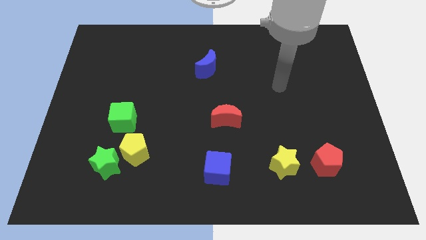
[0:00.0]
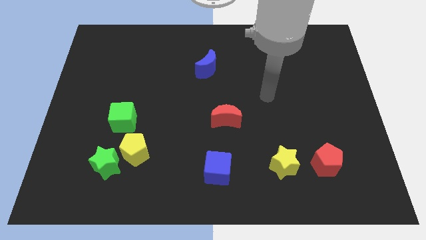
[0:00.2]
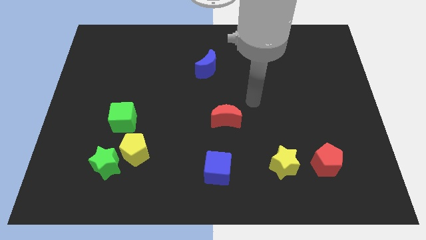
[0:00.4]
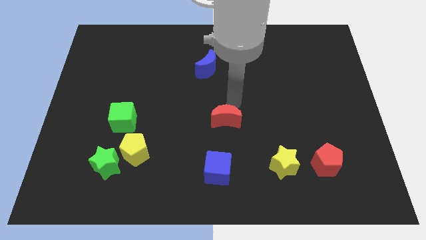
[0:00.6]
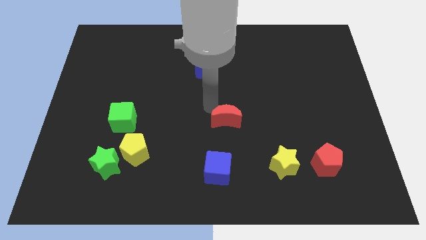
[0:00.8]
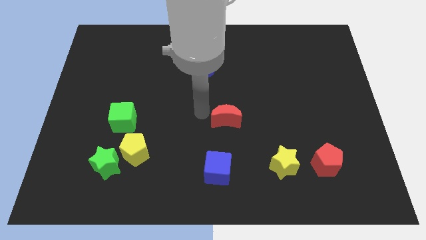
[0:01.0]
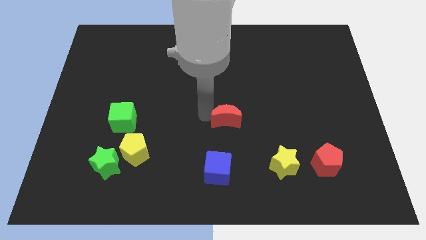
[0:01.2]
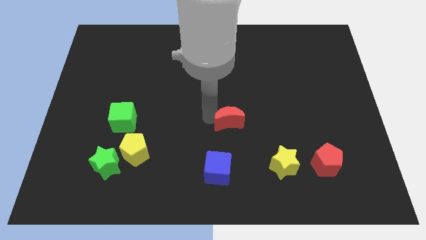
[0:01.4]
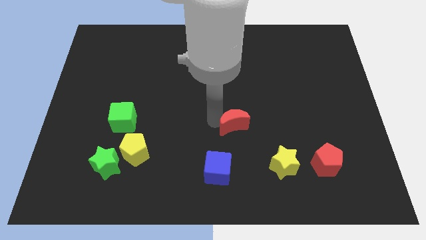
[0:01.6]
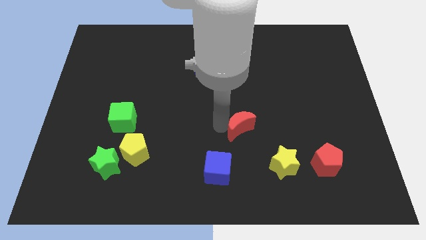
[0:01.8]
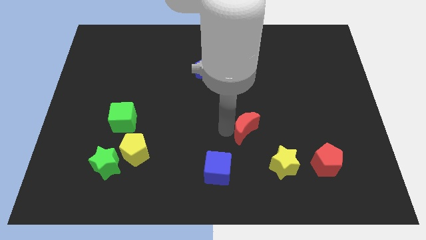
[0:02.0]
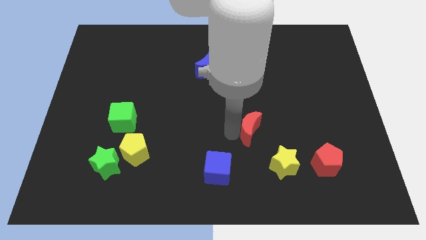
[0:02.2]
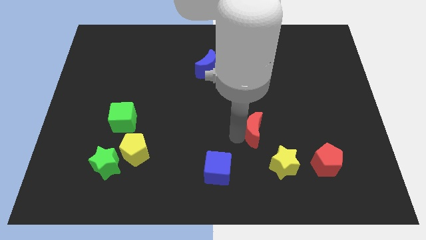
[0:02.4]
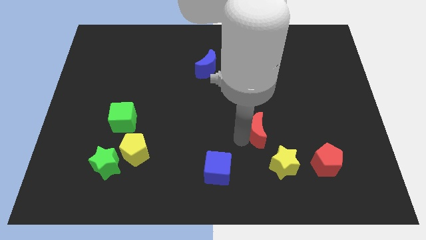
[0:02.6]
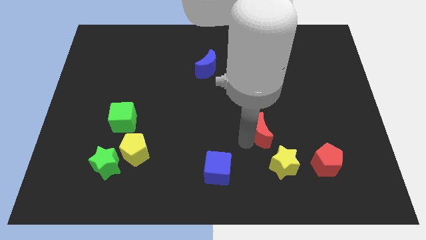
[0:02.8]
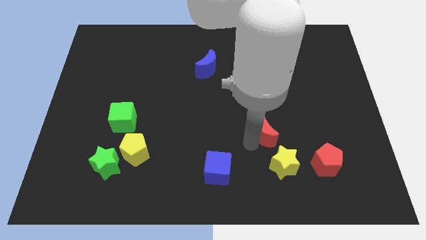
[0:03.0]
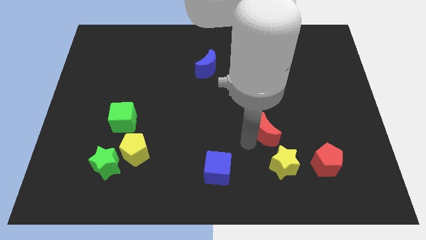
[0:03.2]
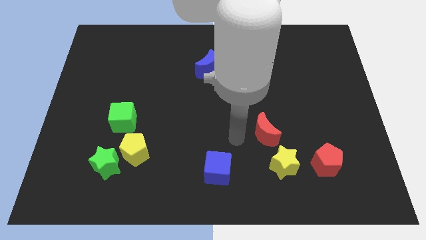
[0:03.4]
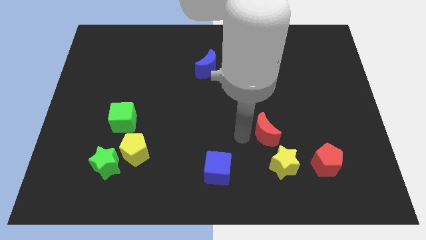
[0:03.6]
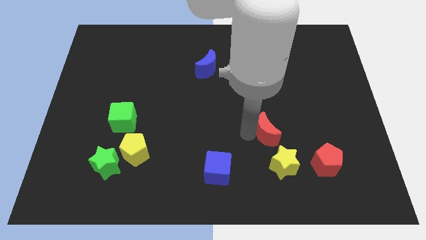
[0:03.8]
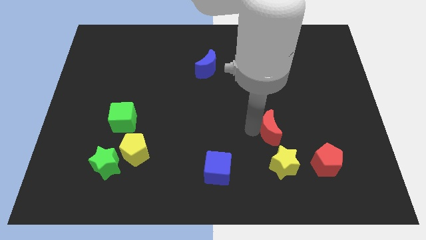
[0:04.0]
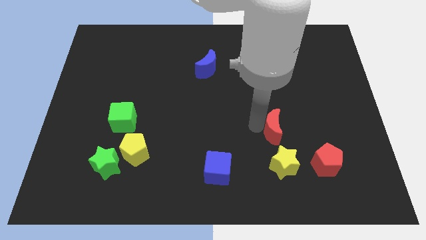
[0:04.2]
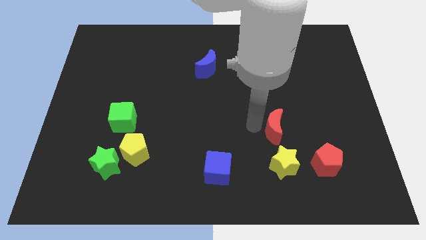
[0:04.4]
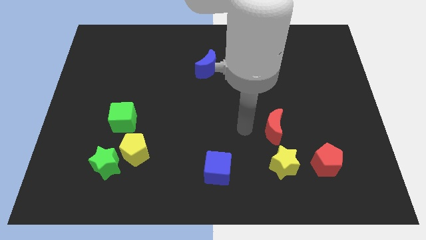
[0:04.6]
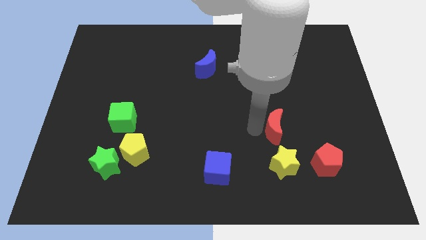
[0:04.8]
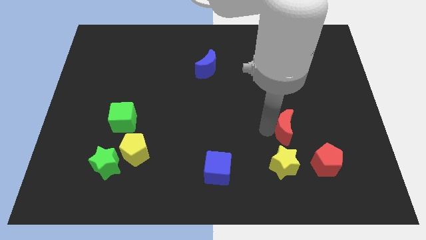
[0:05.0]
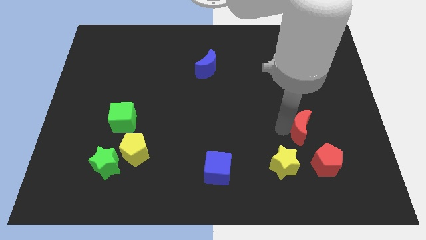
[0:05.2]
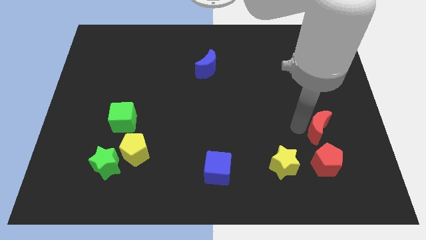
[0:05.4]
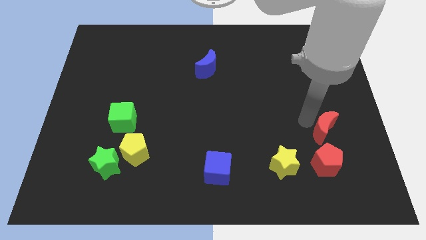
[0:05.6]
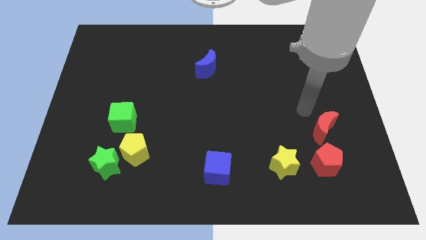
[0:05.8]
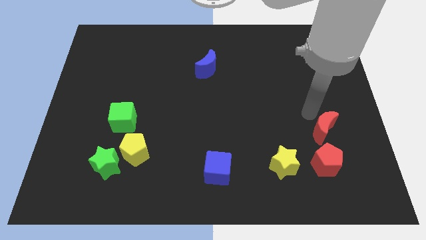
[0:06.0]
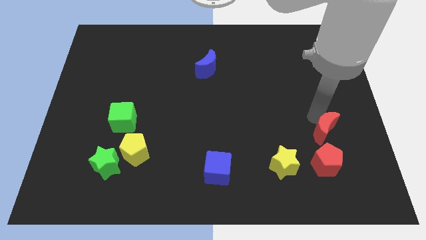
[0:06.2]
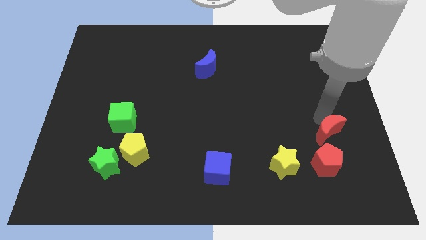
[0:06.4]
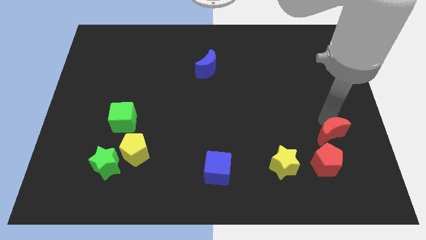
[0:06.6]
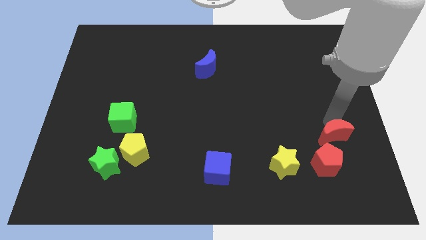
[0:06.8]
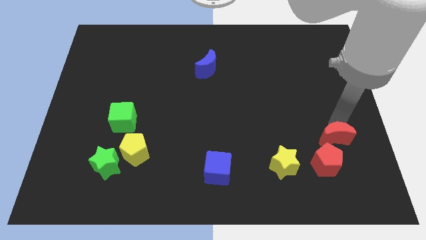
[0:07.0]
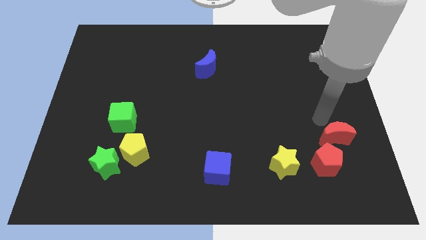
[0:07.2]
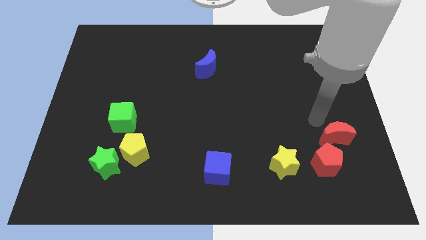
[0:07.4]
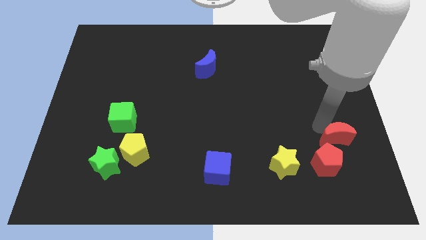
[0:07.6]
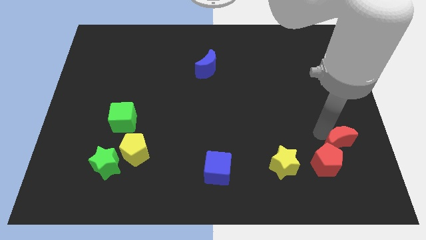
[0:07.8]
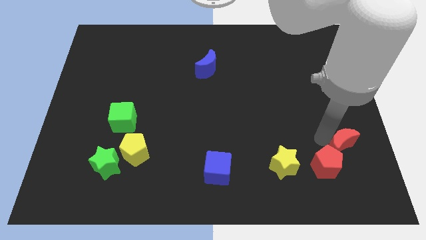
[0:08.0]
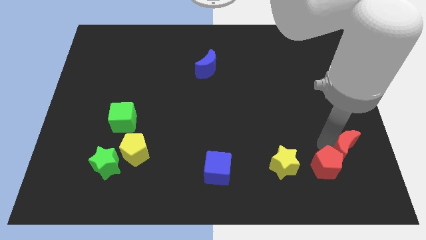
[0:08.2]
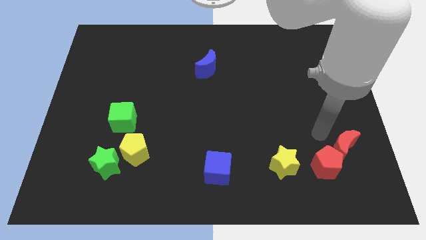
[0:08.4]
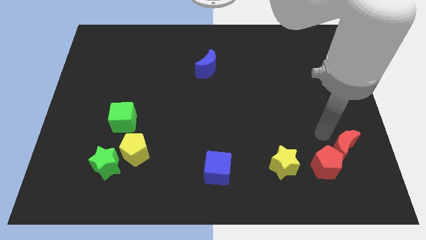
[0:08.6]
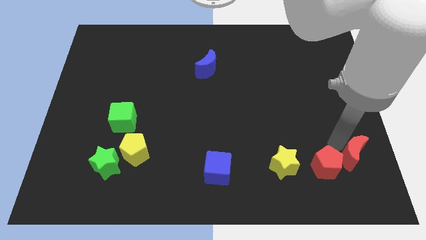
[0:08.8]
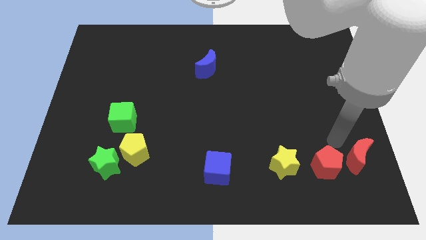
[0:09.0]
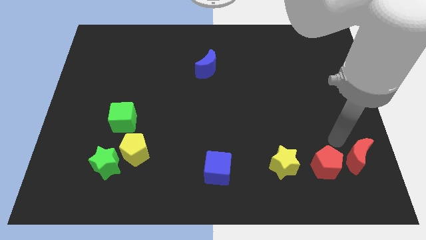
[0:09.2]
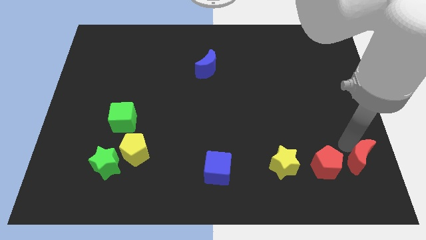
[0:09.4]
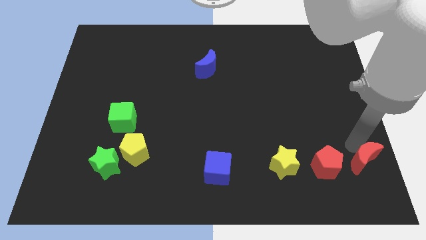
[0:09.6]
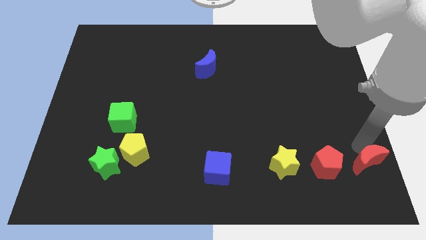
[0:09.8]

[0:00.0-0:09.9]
slide the red moon to the bottom right corner

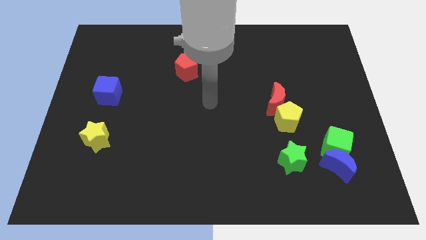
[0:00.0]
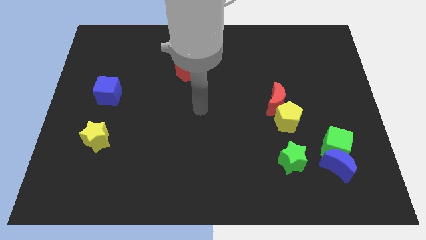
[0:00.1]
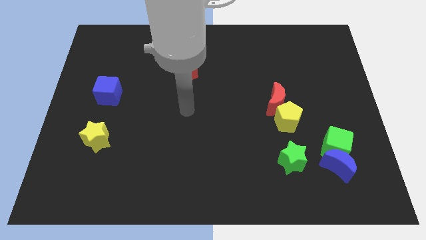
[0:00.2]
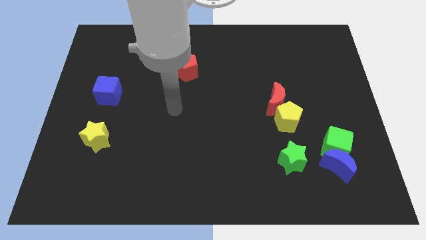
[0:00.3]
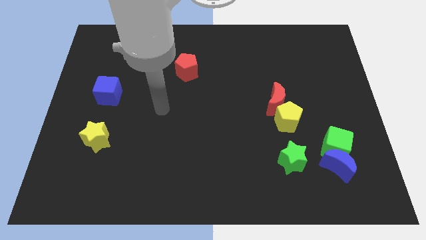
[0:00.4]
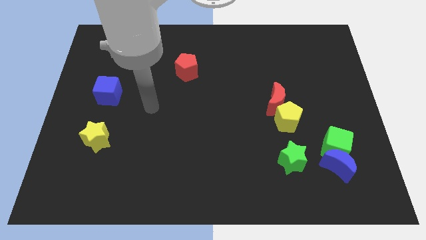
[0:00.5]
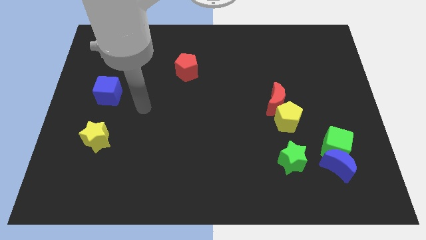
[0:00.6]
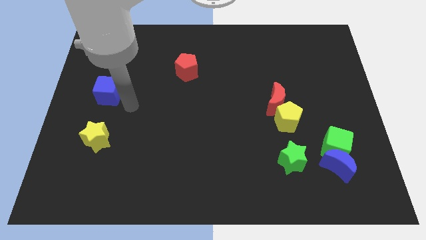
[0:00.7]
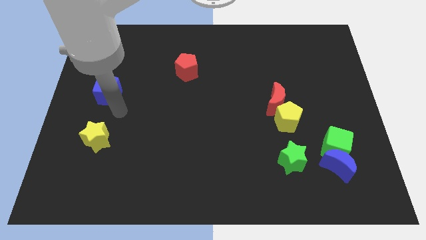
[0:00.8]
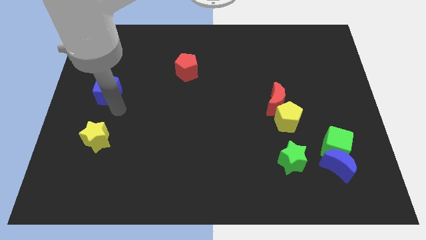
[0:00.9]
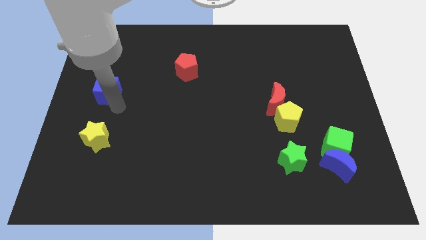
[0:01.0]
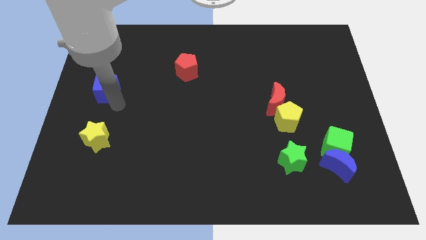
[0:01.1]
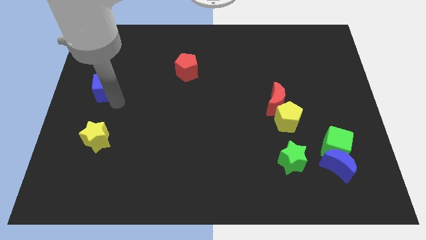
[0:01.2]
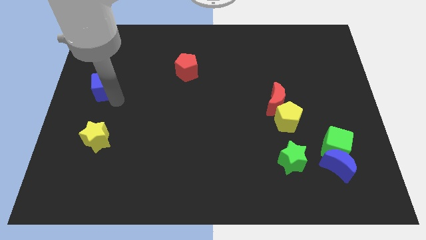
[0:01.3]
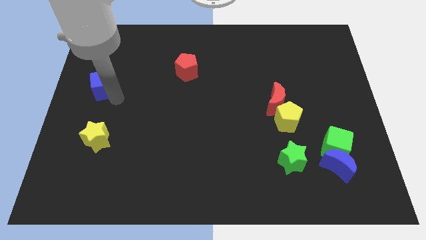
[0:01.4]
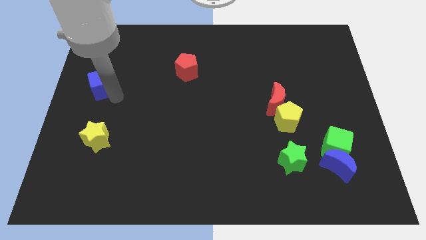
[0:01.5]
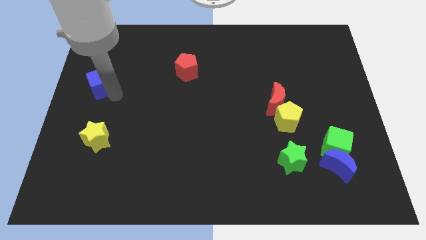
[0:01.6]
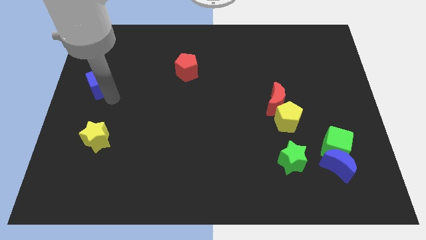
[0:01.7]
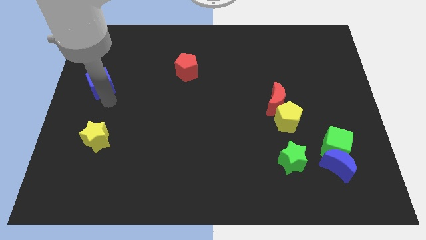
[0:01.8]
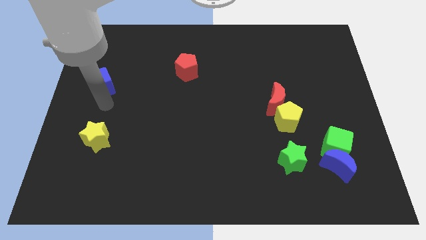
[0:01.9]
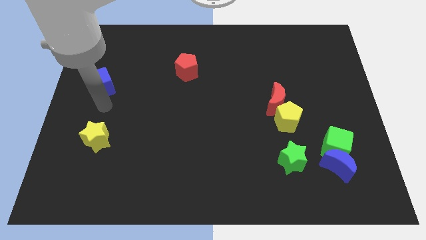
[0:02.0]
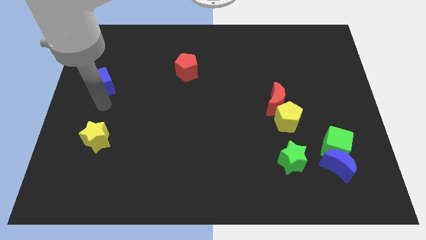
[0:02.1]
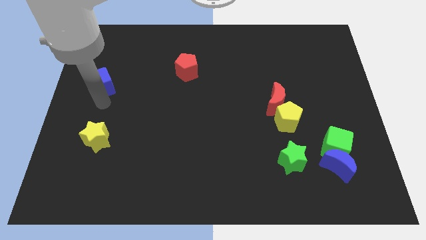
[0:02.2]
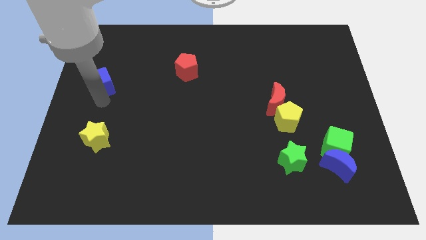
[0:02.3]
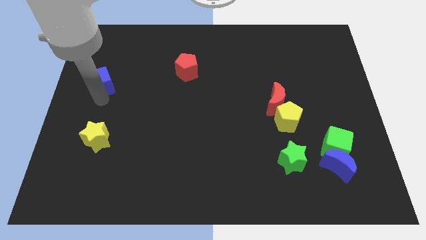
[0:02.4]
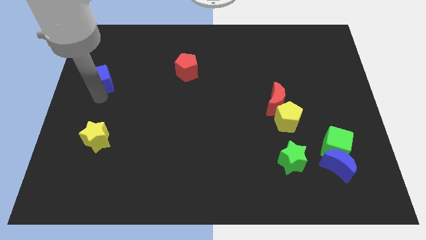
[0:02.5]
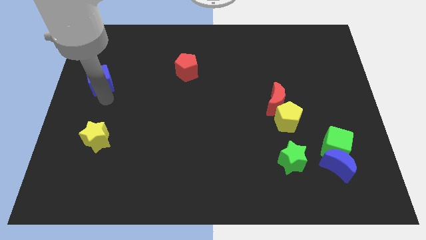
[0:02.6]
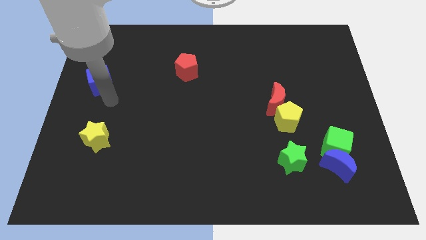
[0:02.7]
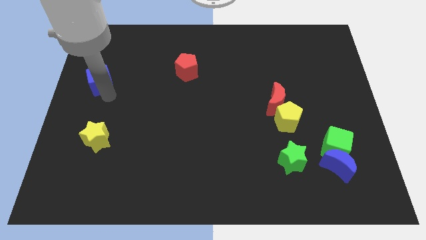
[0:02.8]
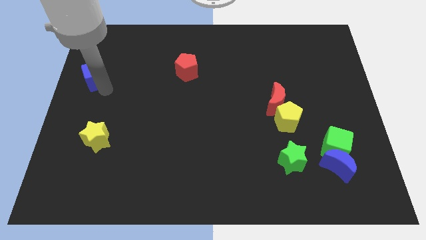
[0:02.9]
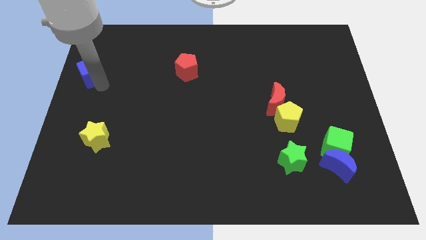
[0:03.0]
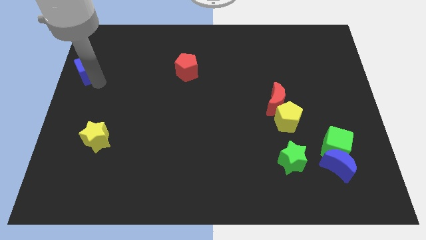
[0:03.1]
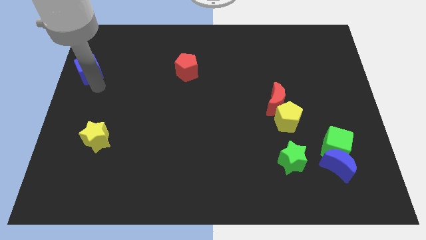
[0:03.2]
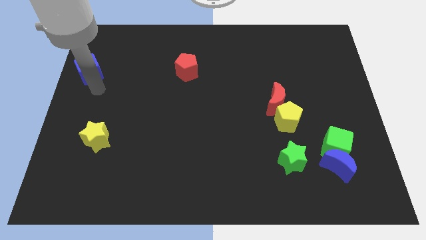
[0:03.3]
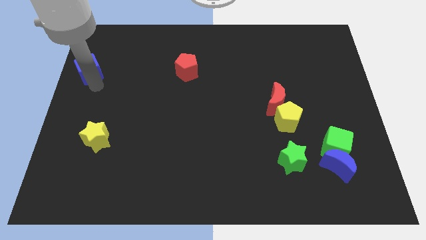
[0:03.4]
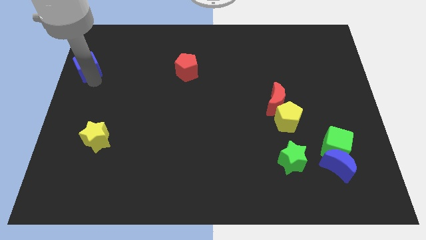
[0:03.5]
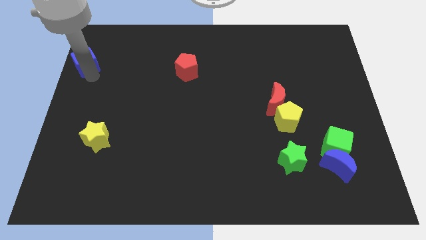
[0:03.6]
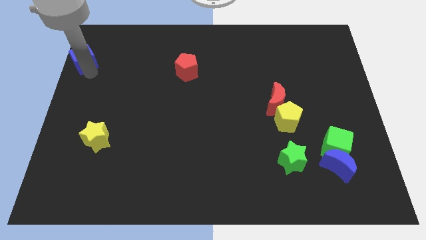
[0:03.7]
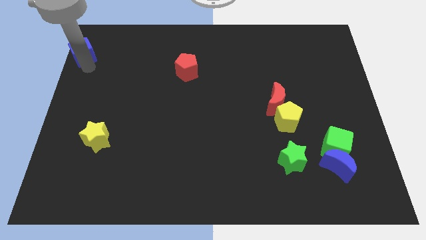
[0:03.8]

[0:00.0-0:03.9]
put the blue cube to the top left of the board
